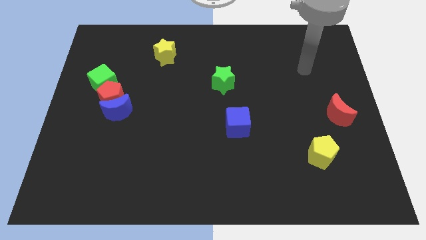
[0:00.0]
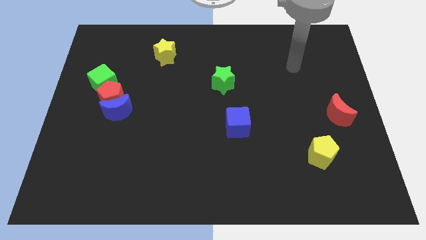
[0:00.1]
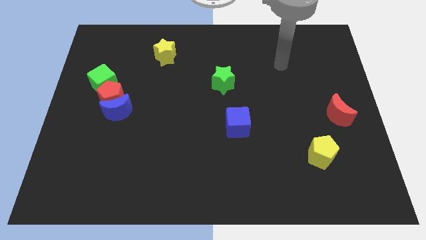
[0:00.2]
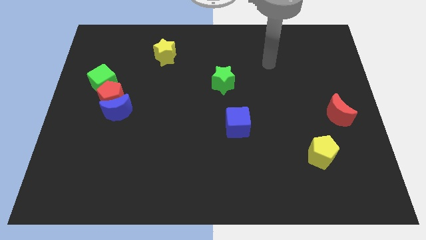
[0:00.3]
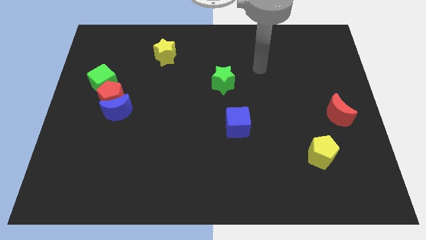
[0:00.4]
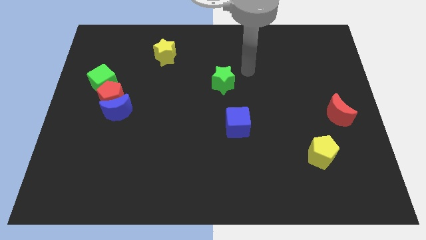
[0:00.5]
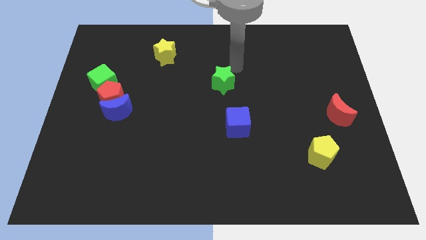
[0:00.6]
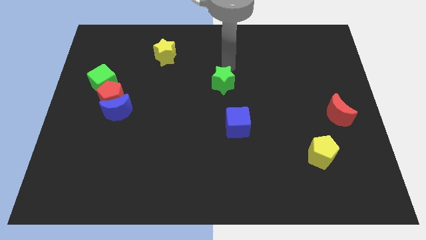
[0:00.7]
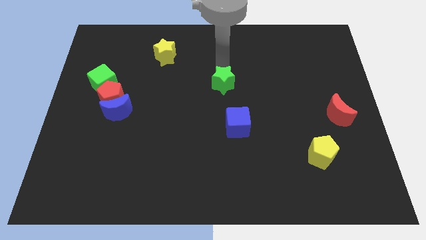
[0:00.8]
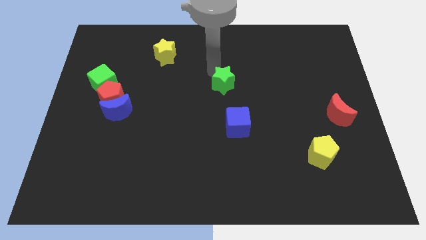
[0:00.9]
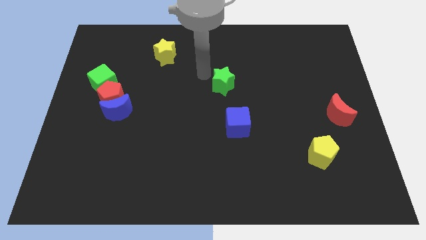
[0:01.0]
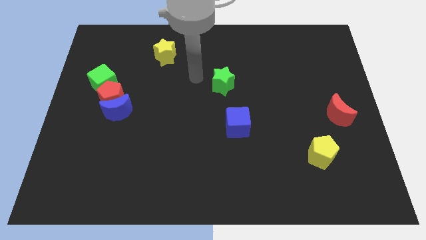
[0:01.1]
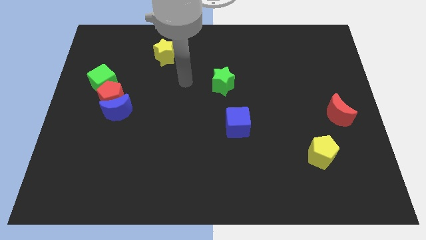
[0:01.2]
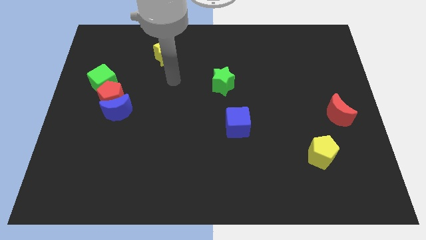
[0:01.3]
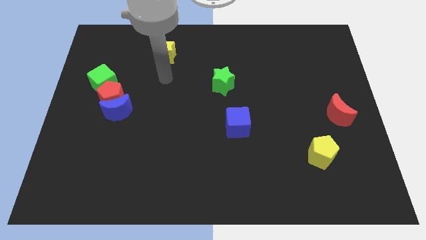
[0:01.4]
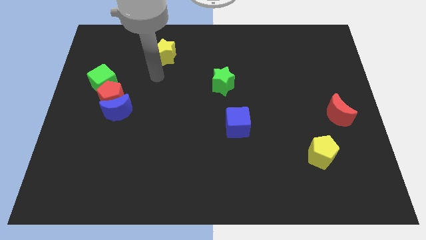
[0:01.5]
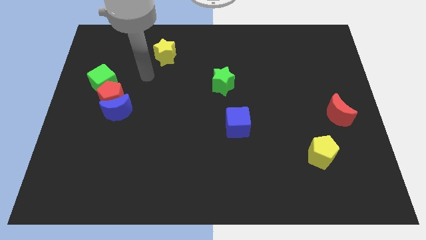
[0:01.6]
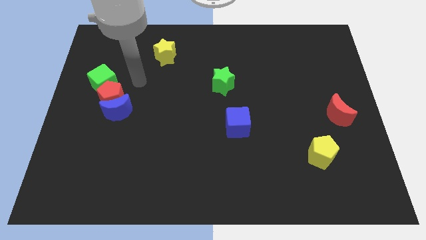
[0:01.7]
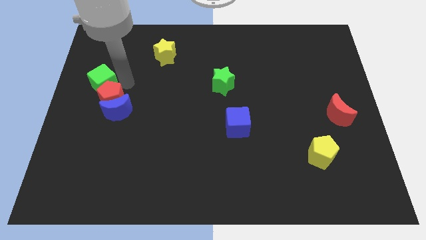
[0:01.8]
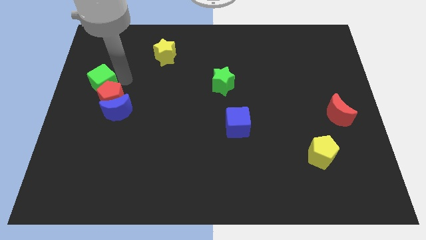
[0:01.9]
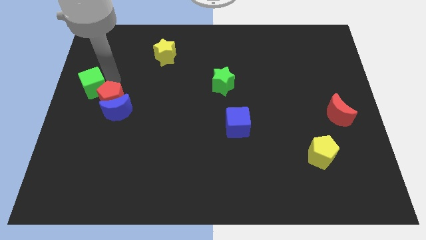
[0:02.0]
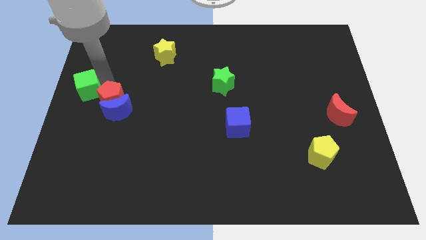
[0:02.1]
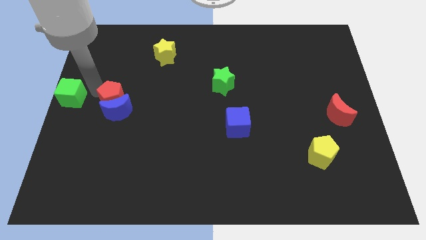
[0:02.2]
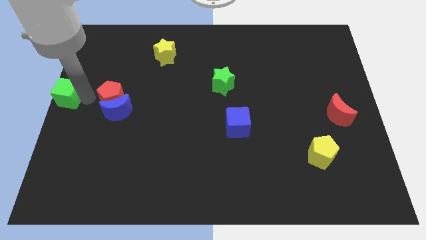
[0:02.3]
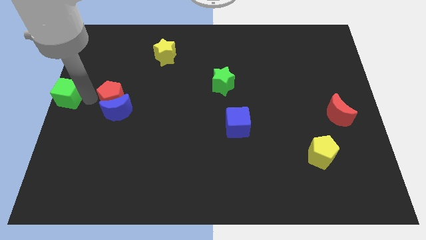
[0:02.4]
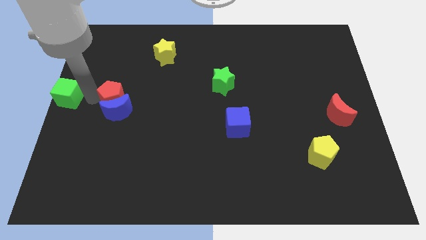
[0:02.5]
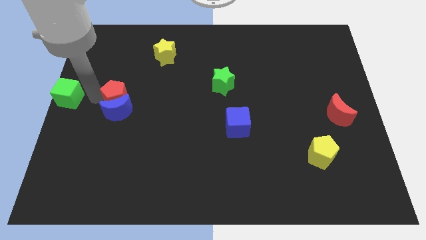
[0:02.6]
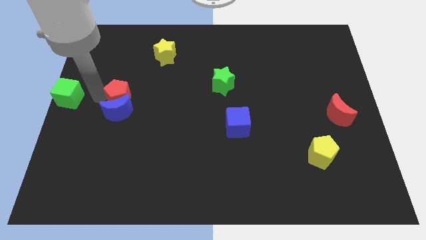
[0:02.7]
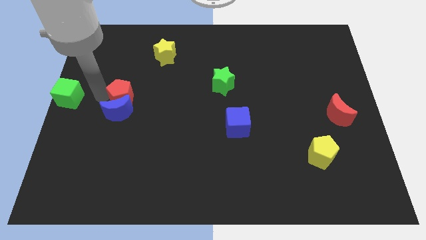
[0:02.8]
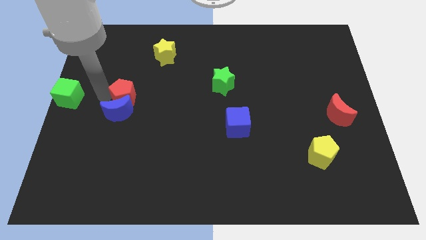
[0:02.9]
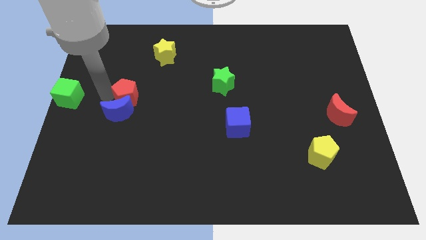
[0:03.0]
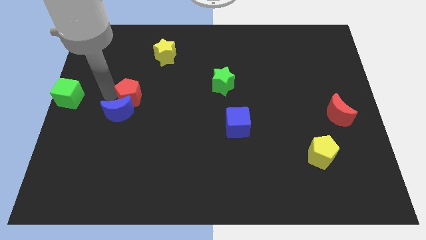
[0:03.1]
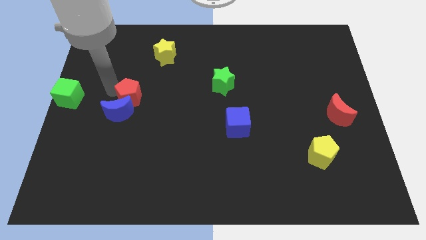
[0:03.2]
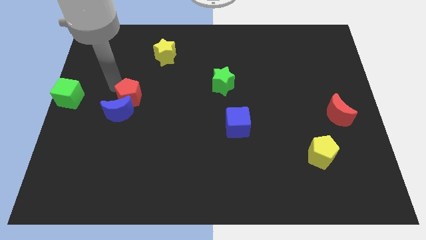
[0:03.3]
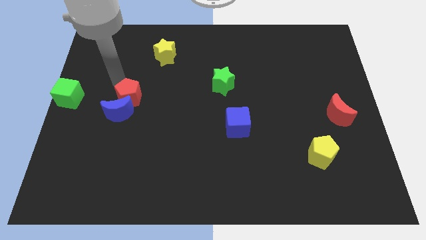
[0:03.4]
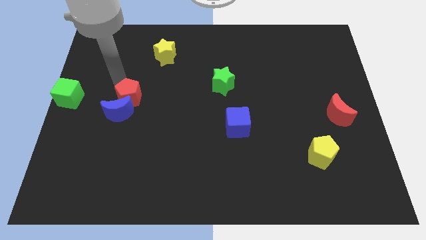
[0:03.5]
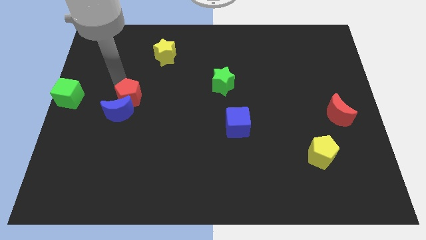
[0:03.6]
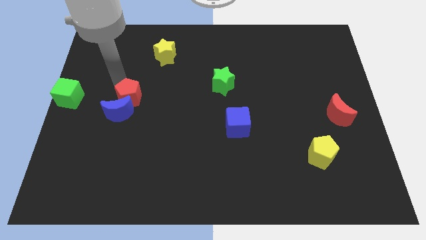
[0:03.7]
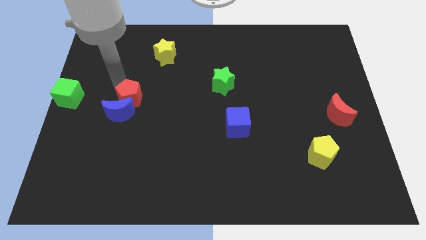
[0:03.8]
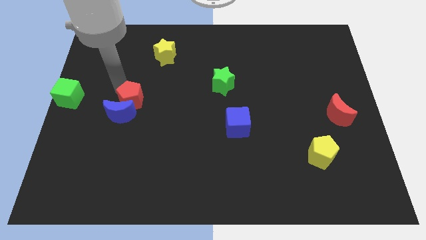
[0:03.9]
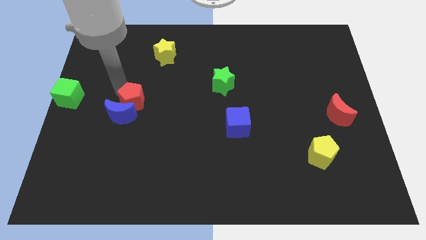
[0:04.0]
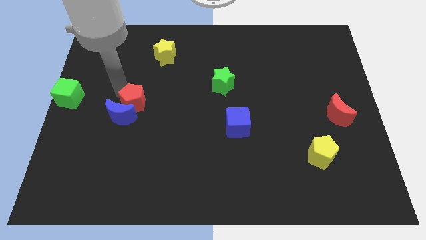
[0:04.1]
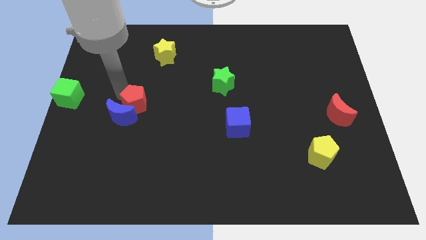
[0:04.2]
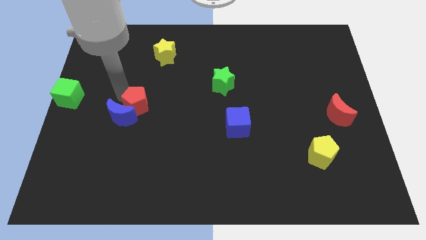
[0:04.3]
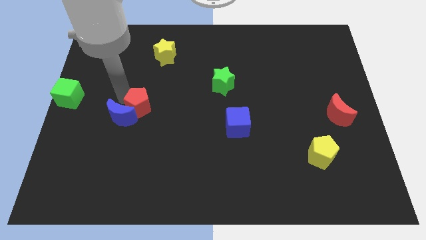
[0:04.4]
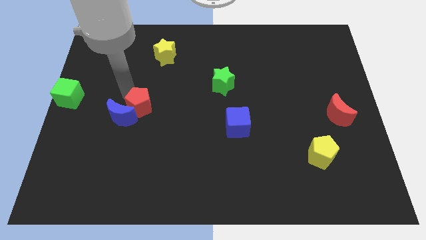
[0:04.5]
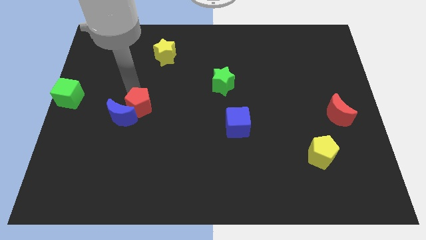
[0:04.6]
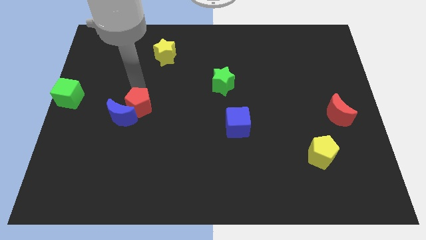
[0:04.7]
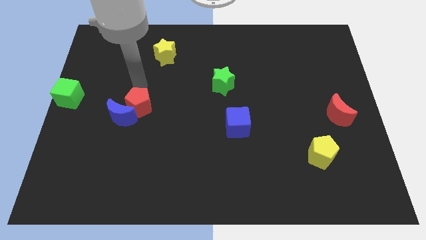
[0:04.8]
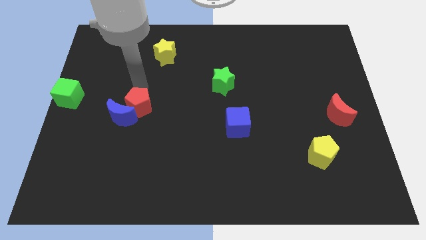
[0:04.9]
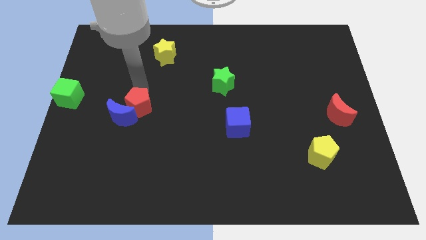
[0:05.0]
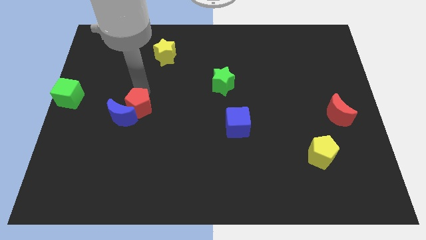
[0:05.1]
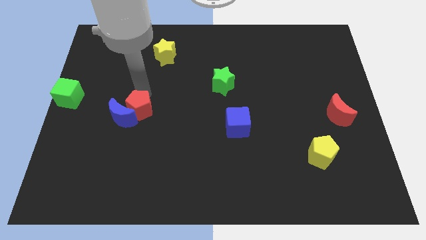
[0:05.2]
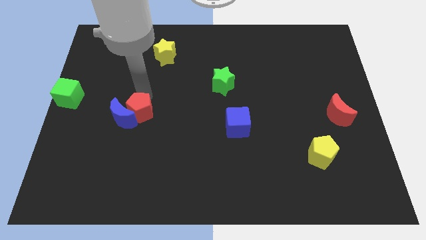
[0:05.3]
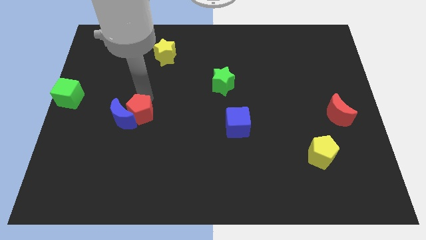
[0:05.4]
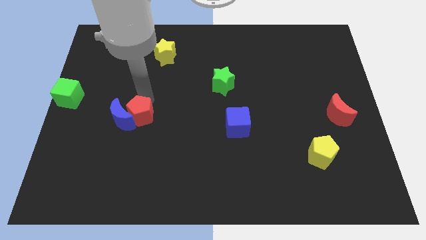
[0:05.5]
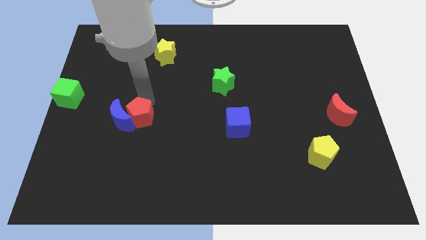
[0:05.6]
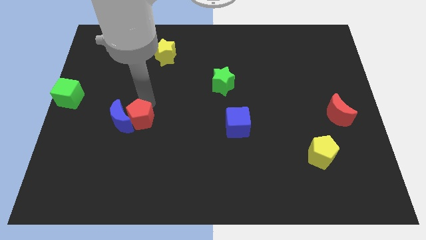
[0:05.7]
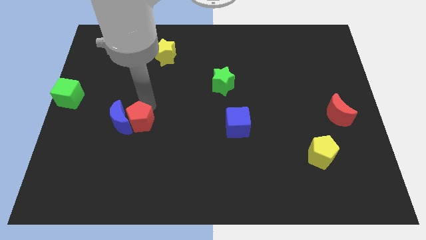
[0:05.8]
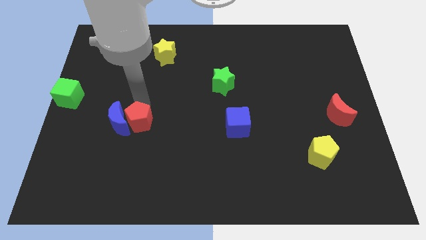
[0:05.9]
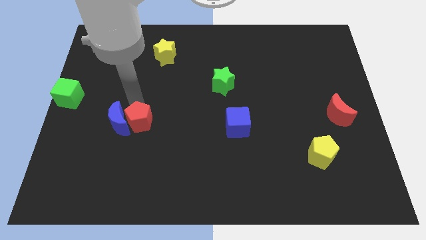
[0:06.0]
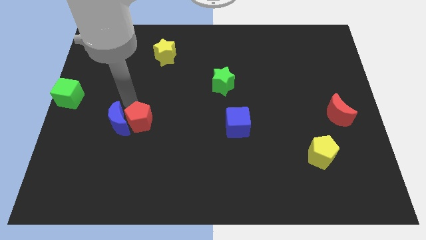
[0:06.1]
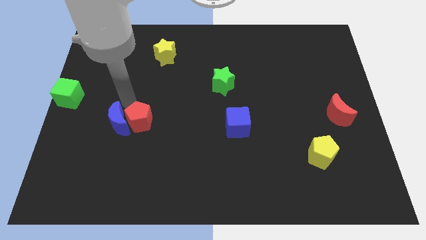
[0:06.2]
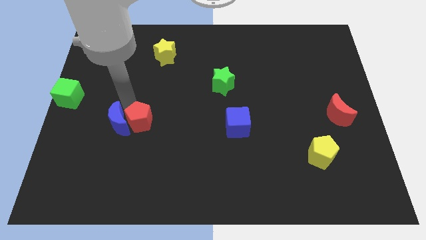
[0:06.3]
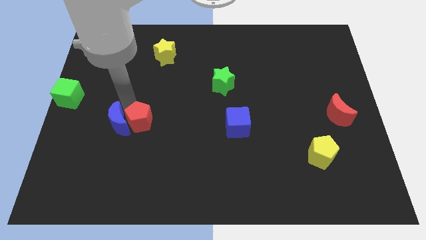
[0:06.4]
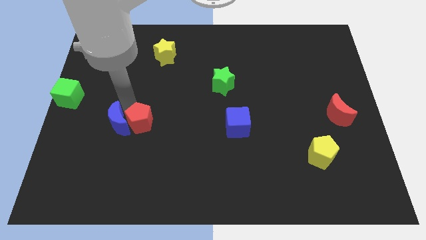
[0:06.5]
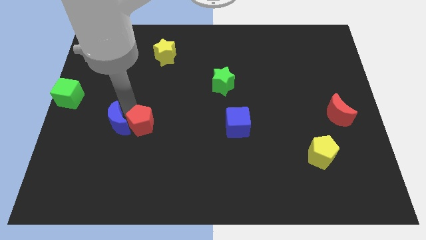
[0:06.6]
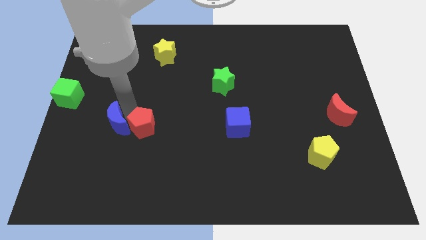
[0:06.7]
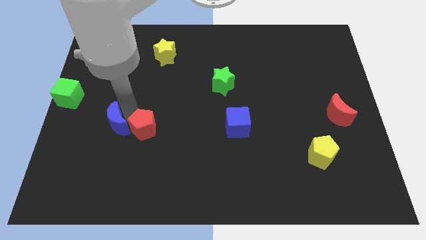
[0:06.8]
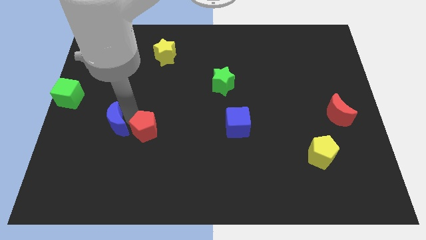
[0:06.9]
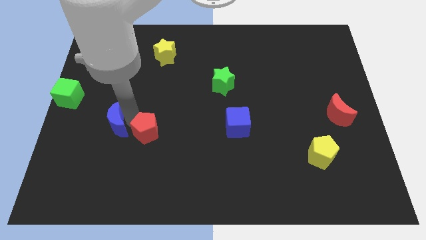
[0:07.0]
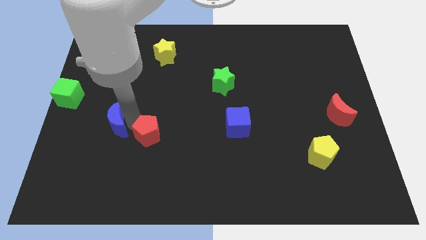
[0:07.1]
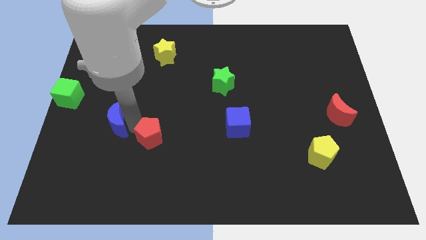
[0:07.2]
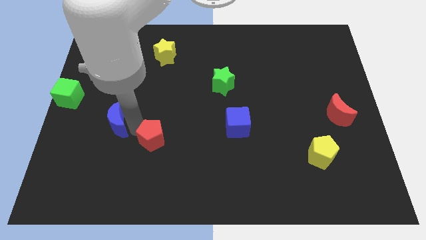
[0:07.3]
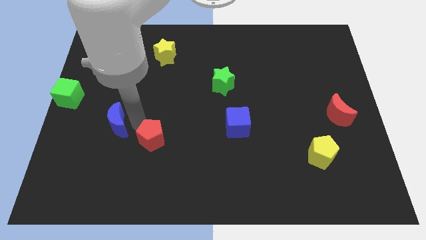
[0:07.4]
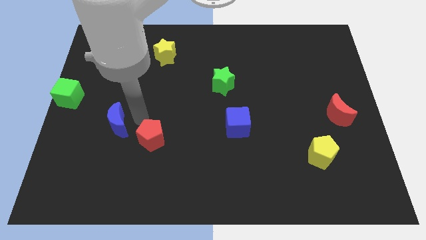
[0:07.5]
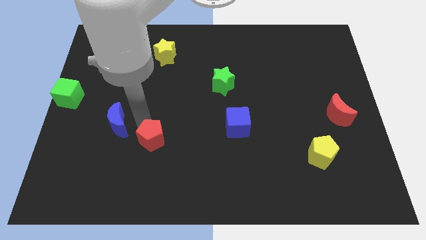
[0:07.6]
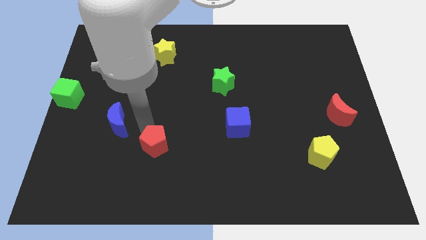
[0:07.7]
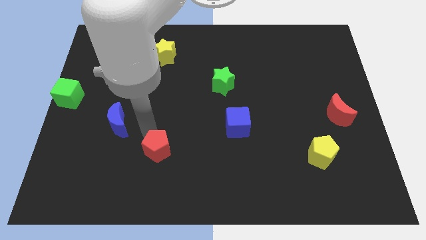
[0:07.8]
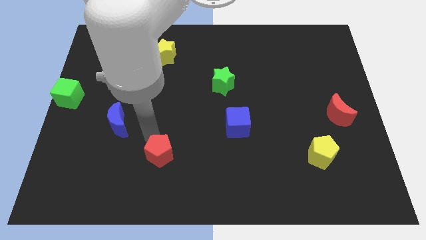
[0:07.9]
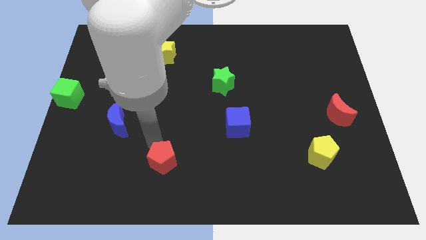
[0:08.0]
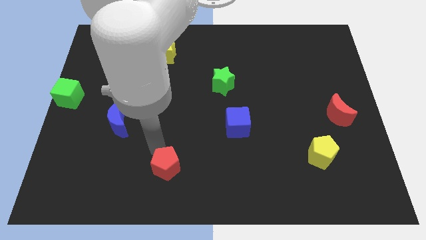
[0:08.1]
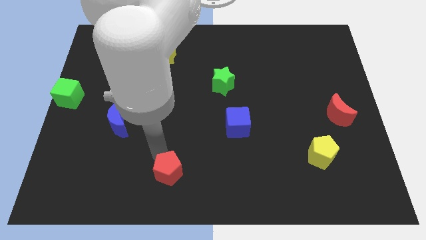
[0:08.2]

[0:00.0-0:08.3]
move the red pentagon to the bottom side
